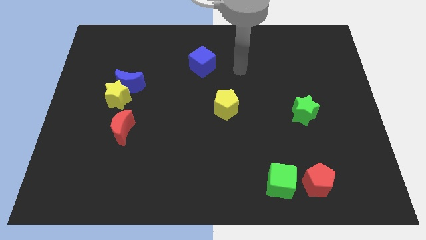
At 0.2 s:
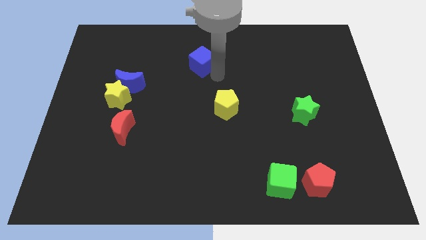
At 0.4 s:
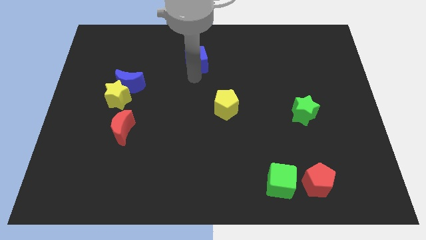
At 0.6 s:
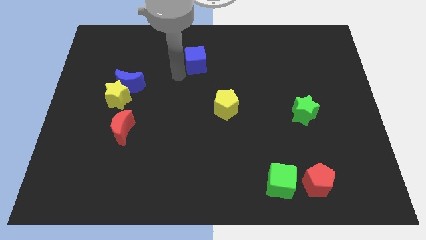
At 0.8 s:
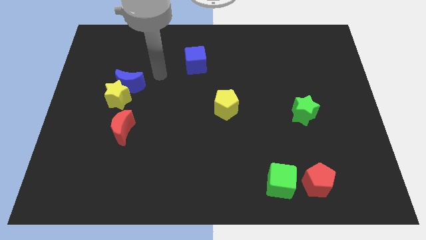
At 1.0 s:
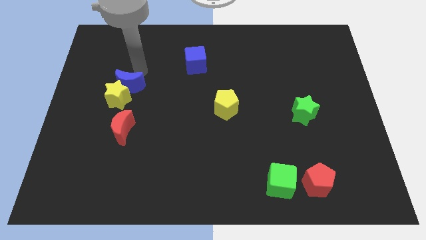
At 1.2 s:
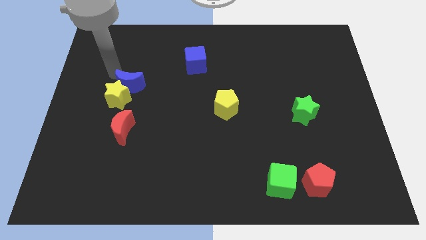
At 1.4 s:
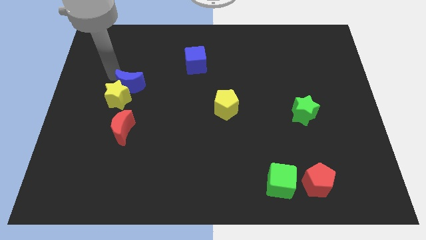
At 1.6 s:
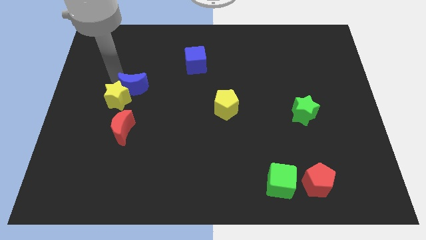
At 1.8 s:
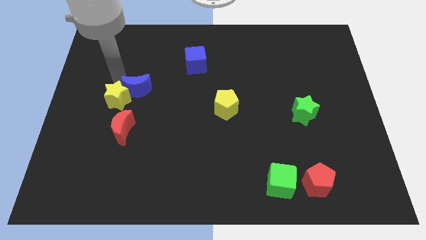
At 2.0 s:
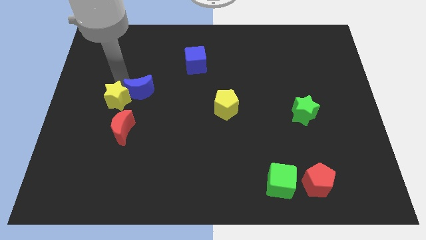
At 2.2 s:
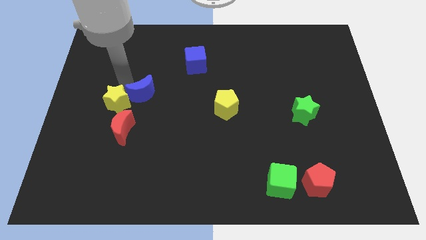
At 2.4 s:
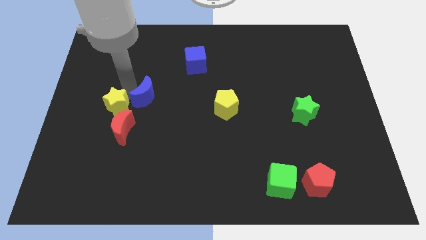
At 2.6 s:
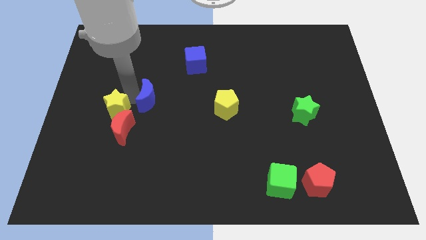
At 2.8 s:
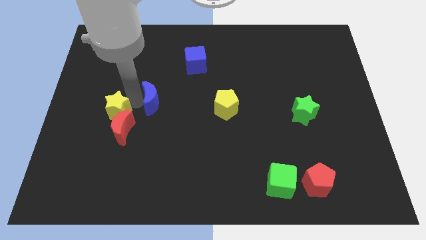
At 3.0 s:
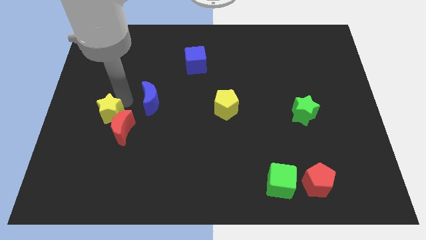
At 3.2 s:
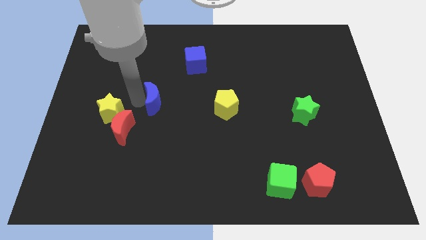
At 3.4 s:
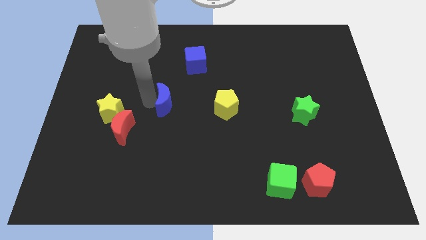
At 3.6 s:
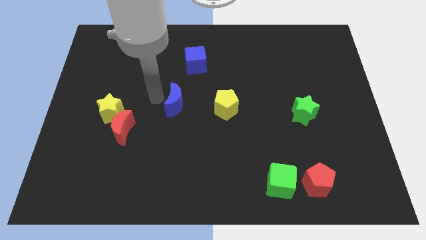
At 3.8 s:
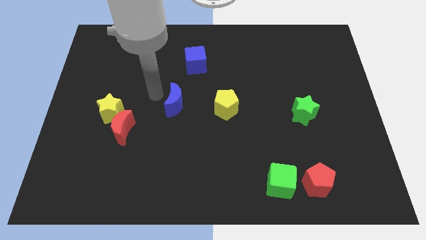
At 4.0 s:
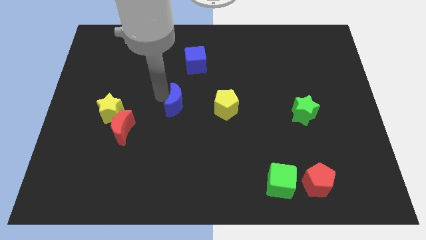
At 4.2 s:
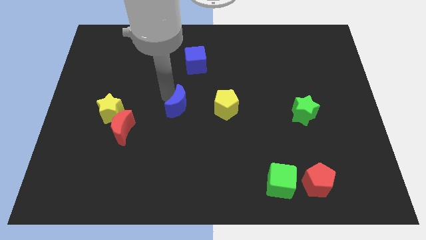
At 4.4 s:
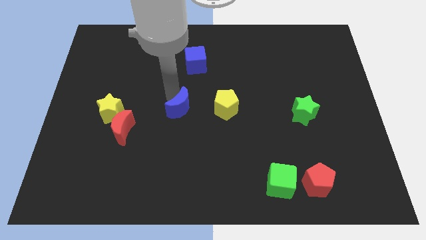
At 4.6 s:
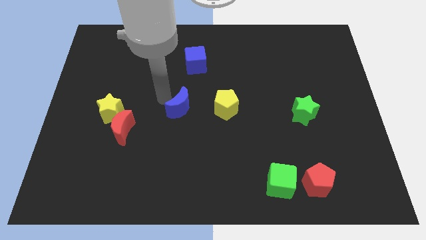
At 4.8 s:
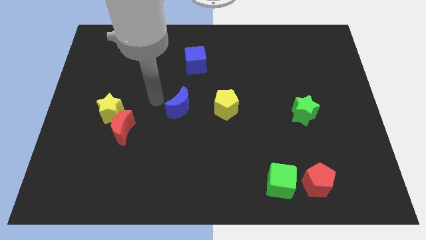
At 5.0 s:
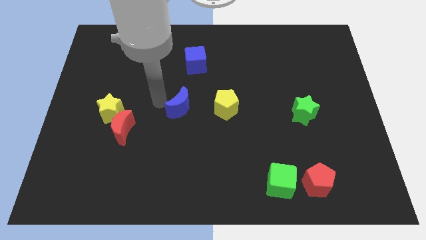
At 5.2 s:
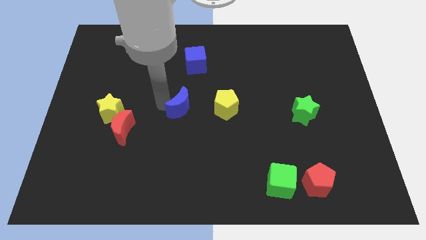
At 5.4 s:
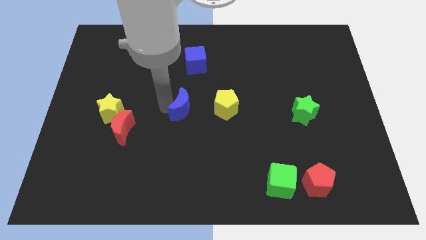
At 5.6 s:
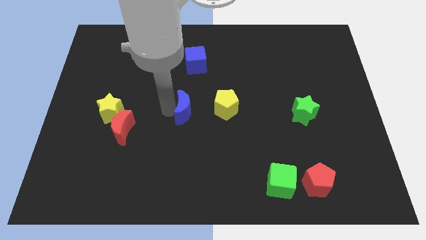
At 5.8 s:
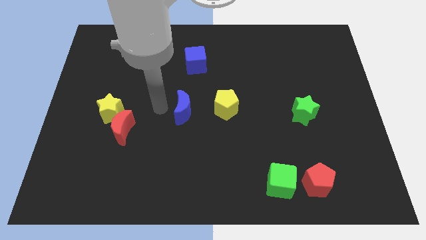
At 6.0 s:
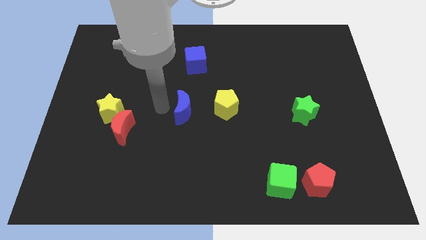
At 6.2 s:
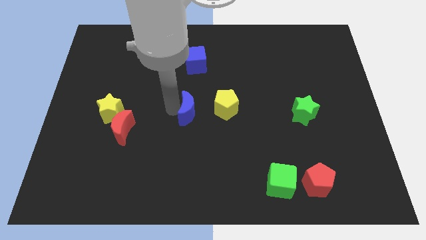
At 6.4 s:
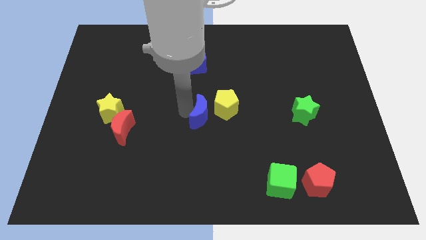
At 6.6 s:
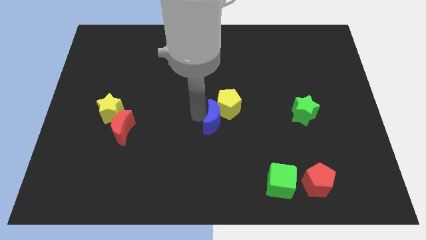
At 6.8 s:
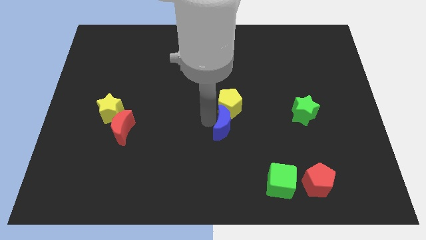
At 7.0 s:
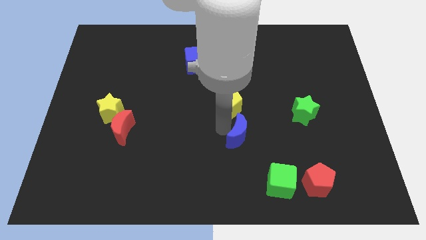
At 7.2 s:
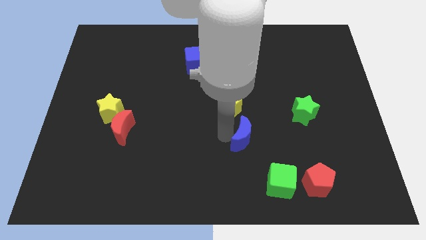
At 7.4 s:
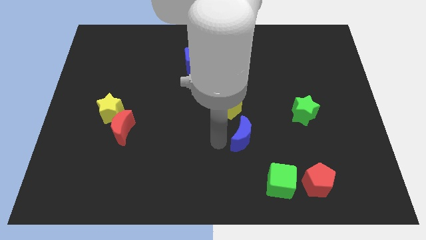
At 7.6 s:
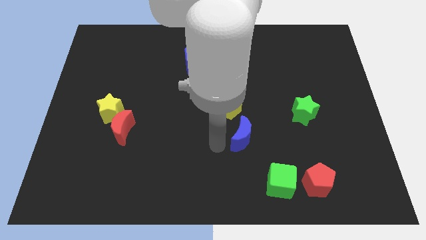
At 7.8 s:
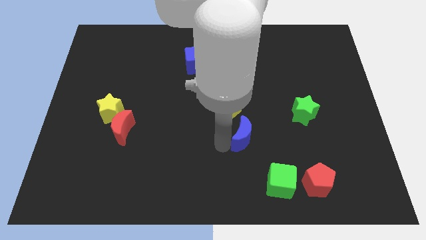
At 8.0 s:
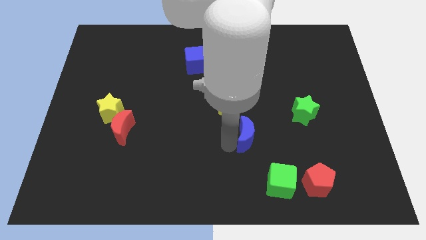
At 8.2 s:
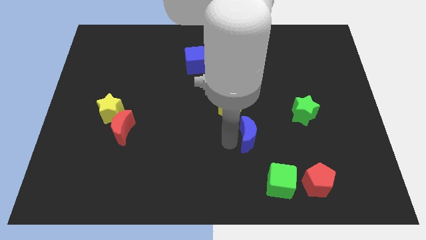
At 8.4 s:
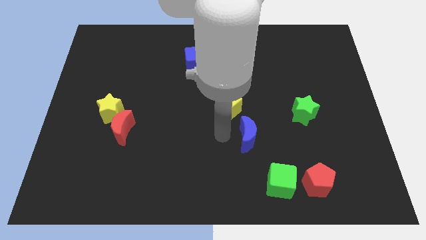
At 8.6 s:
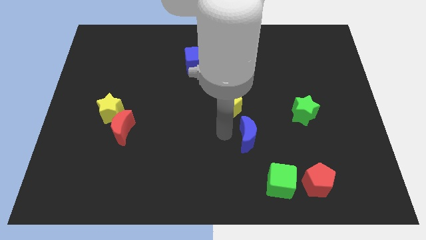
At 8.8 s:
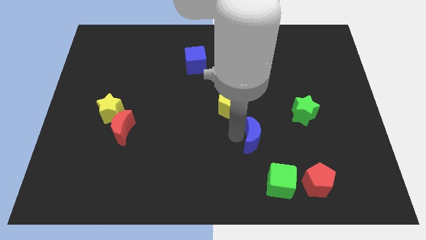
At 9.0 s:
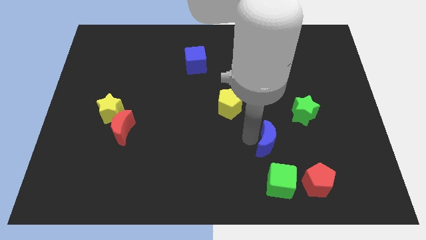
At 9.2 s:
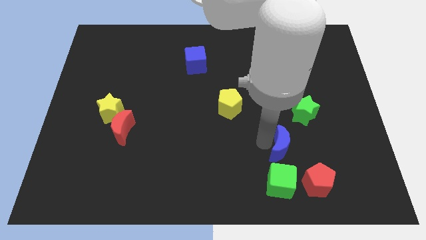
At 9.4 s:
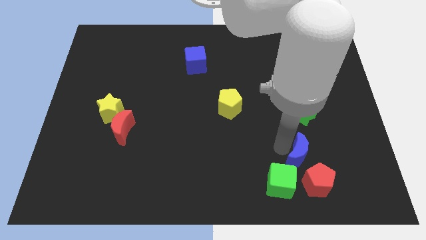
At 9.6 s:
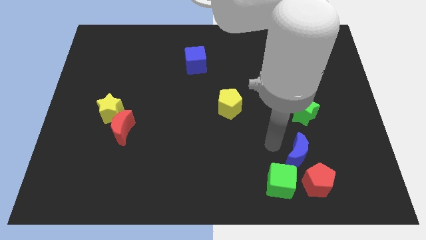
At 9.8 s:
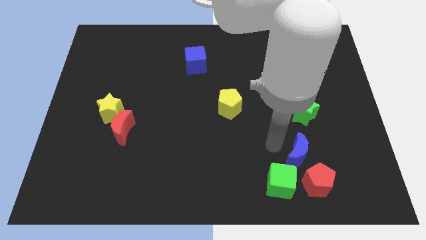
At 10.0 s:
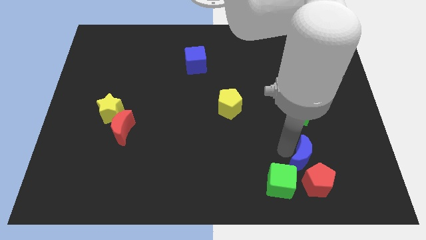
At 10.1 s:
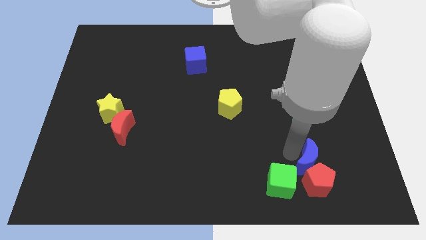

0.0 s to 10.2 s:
slide the blue moon just right of the green cube

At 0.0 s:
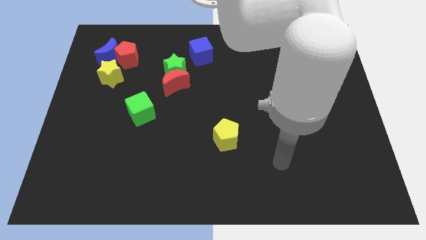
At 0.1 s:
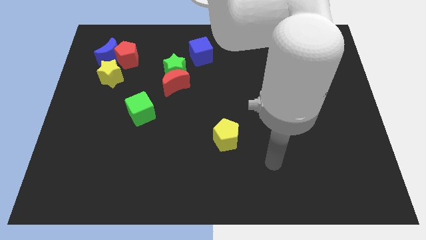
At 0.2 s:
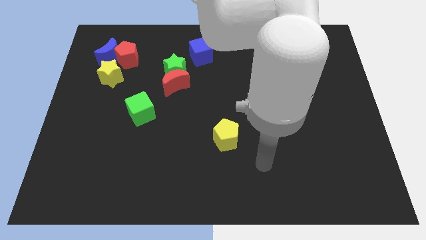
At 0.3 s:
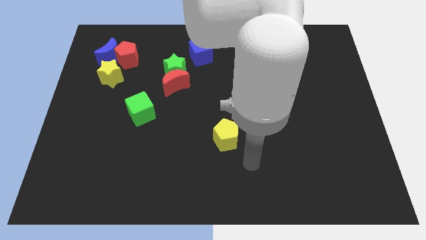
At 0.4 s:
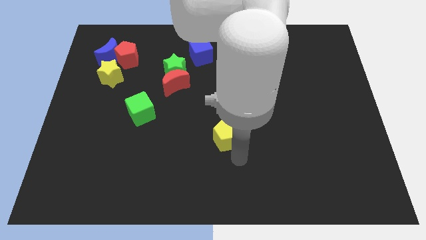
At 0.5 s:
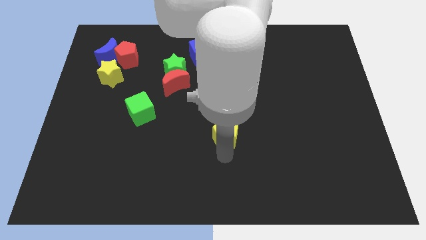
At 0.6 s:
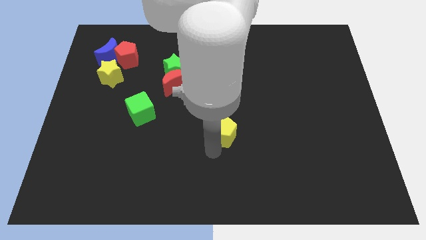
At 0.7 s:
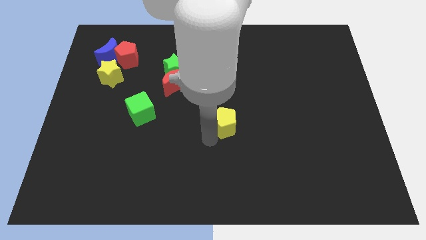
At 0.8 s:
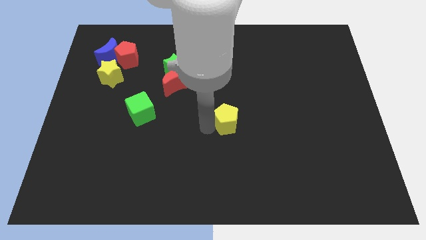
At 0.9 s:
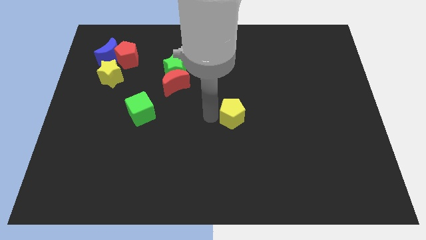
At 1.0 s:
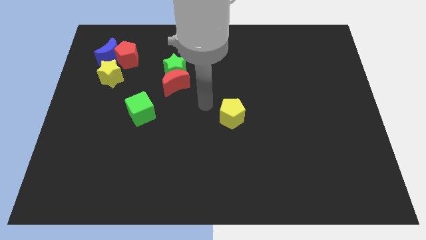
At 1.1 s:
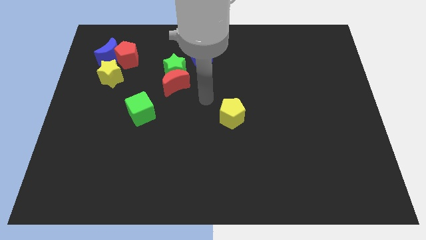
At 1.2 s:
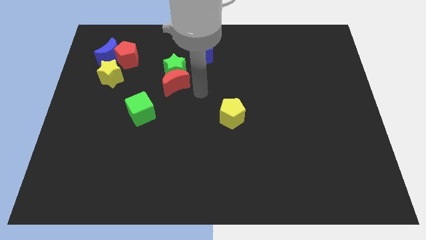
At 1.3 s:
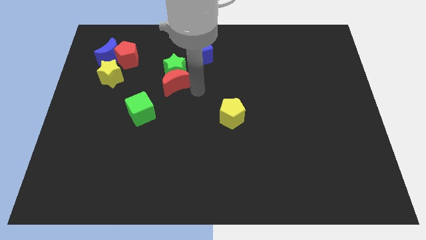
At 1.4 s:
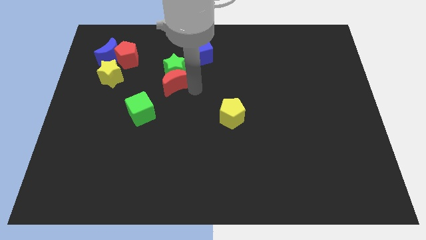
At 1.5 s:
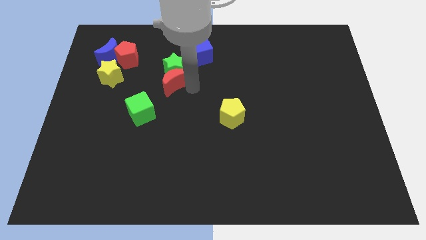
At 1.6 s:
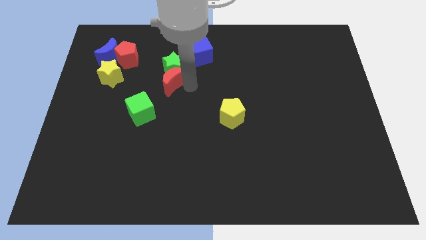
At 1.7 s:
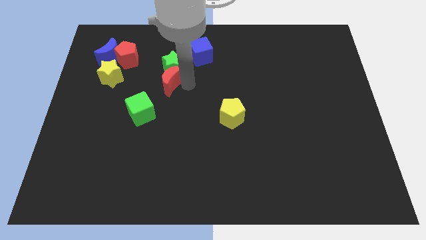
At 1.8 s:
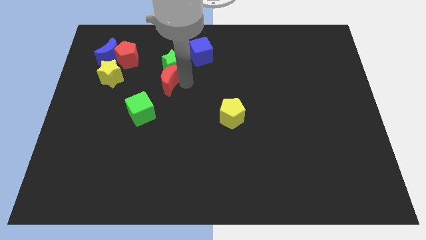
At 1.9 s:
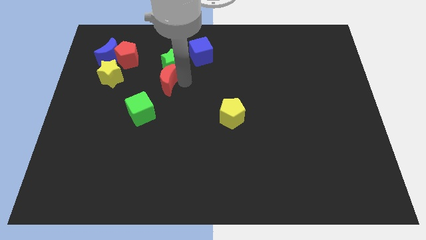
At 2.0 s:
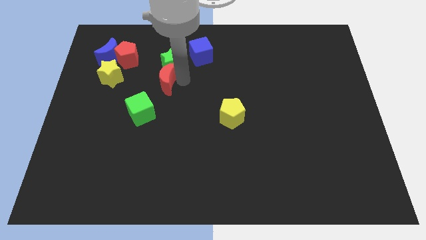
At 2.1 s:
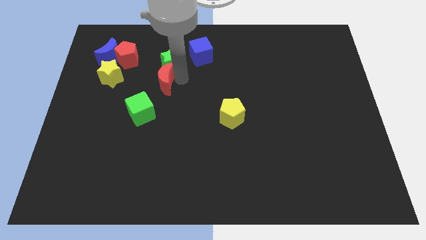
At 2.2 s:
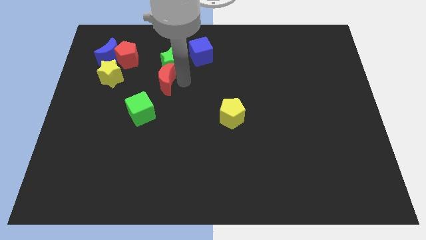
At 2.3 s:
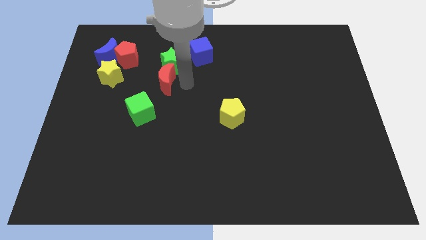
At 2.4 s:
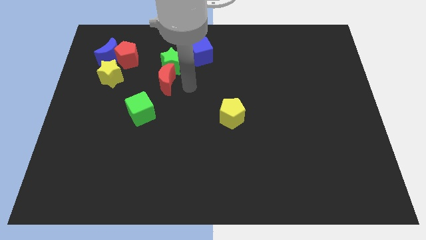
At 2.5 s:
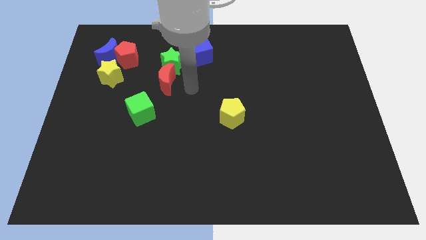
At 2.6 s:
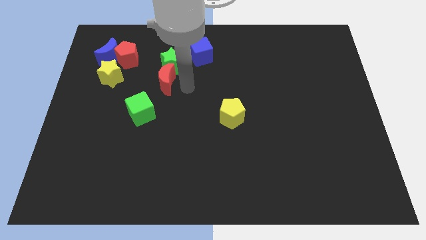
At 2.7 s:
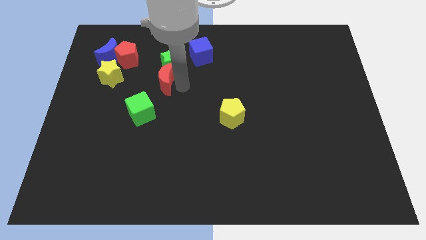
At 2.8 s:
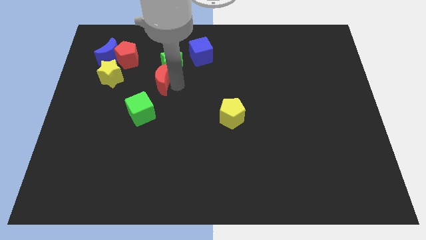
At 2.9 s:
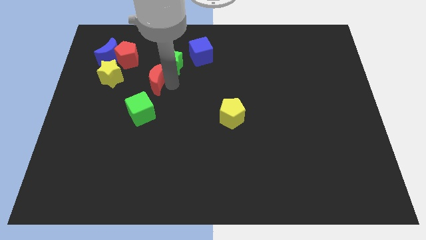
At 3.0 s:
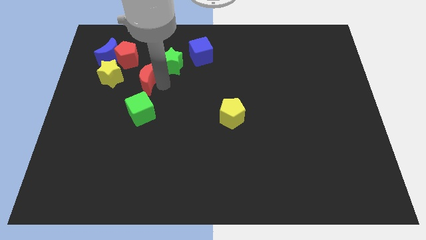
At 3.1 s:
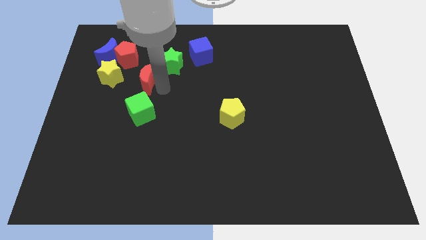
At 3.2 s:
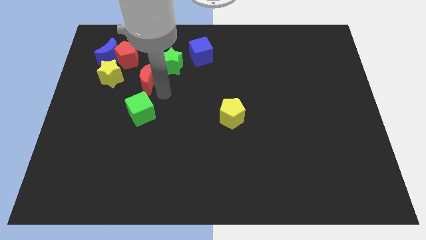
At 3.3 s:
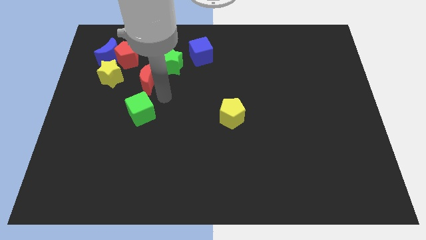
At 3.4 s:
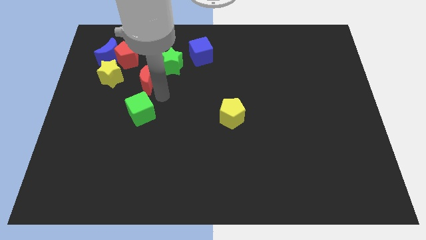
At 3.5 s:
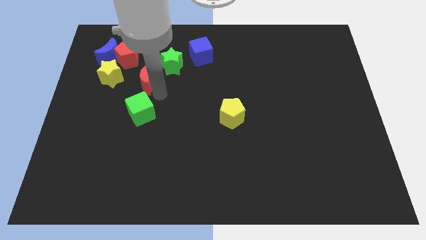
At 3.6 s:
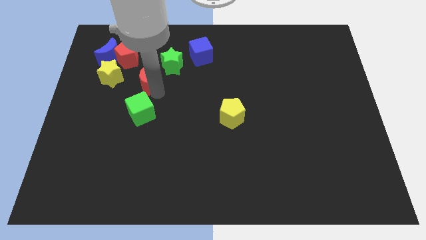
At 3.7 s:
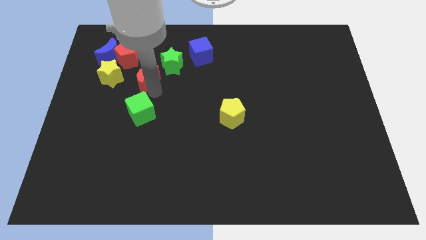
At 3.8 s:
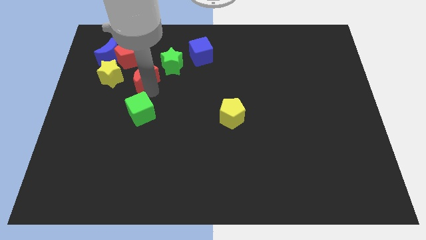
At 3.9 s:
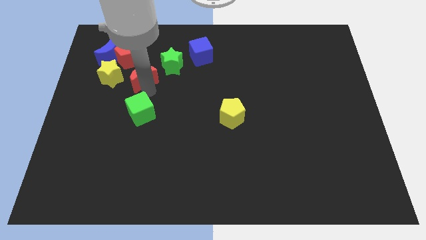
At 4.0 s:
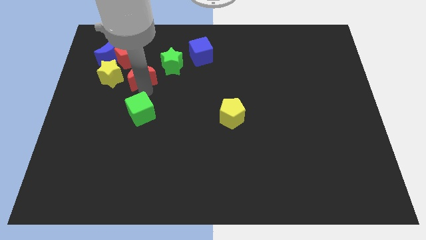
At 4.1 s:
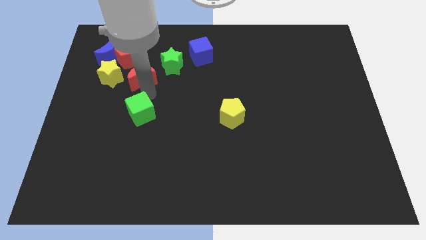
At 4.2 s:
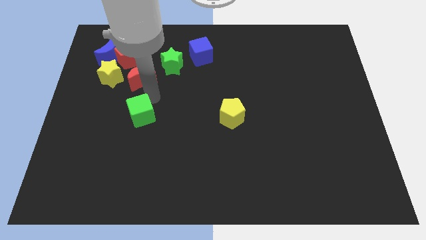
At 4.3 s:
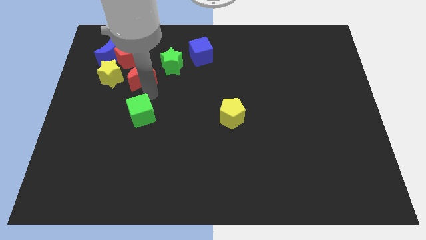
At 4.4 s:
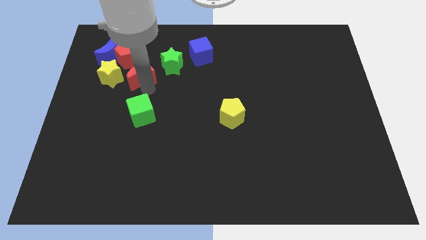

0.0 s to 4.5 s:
slide the red moon to the left side of the green star
